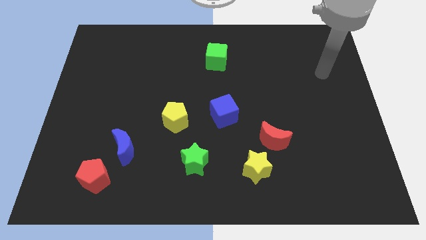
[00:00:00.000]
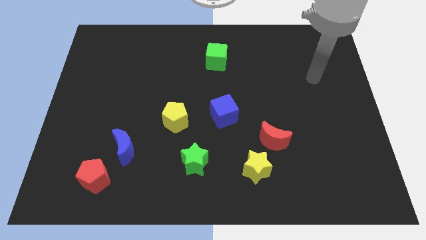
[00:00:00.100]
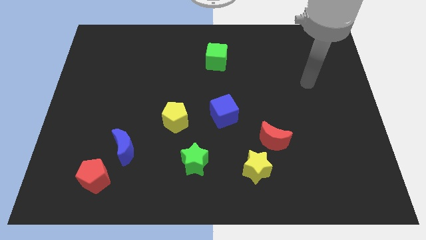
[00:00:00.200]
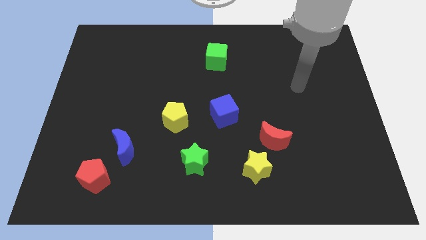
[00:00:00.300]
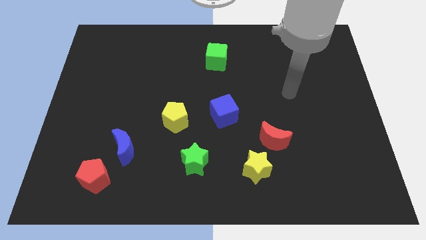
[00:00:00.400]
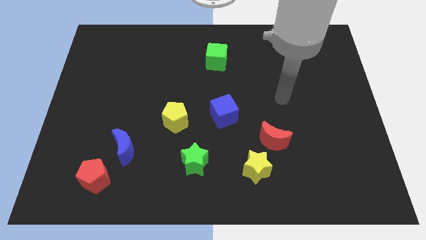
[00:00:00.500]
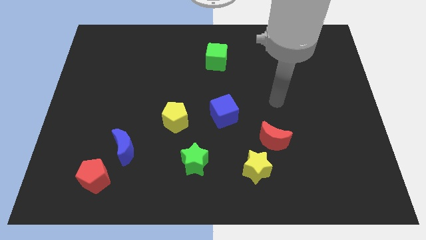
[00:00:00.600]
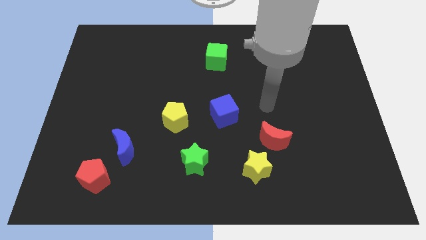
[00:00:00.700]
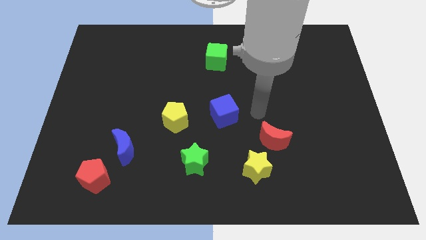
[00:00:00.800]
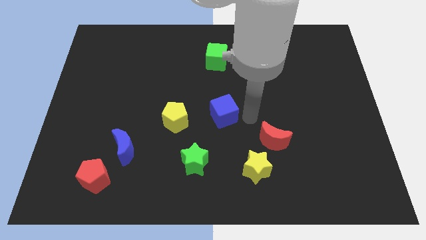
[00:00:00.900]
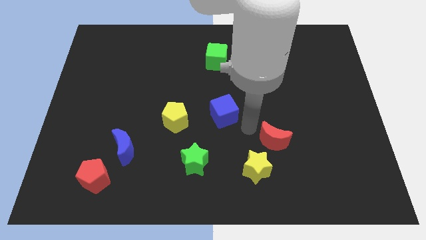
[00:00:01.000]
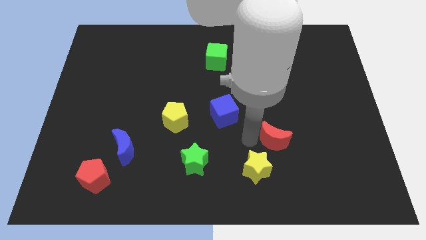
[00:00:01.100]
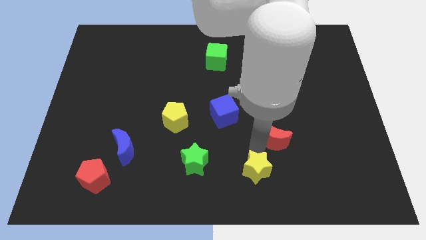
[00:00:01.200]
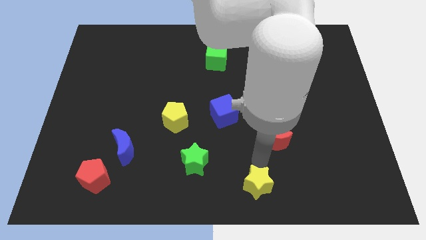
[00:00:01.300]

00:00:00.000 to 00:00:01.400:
move the red moon away from the yellow star

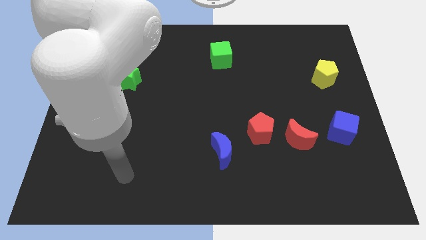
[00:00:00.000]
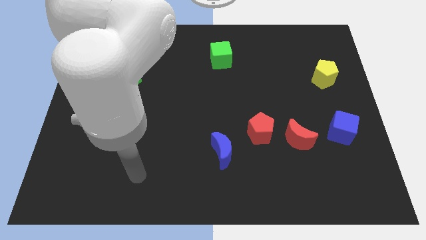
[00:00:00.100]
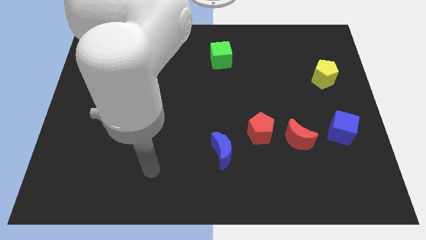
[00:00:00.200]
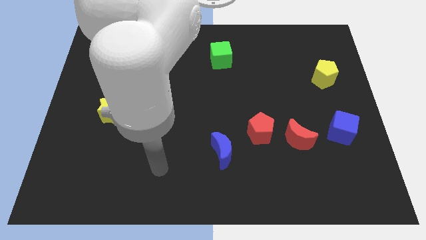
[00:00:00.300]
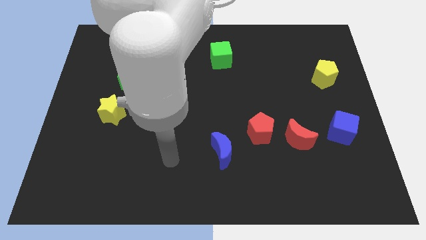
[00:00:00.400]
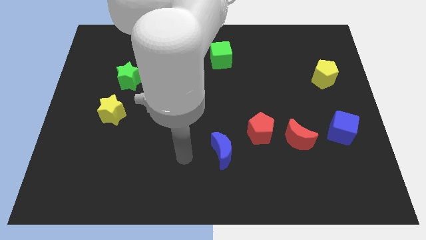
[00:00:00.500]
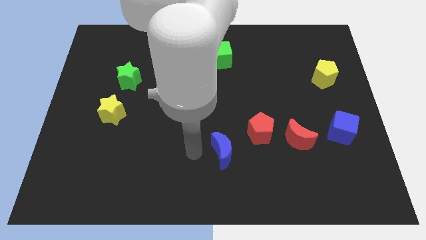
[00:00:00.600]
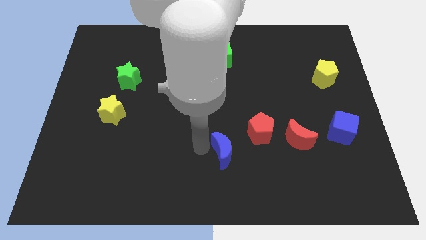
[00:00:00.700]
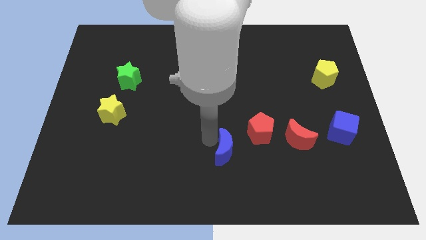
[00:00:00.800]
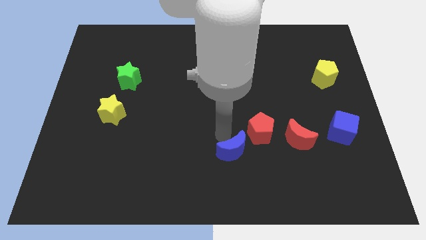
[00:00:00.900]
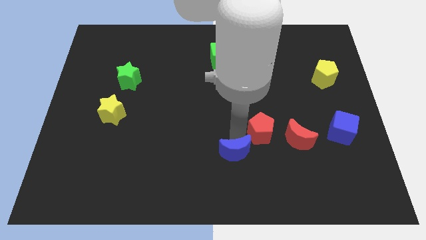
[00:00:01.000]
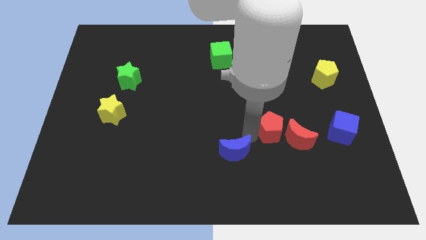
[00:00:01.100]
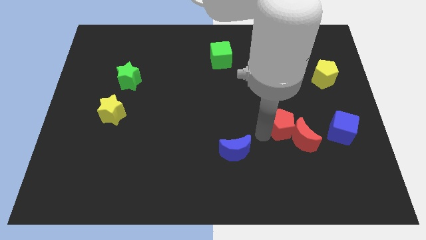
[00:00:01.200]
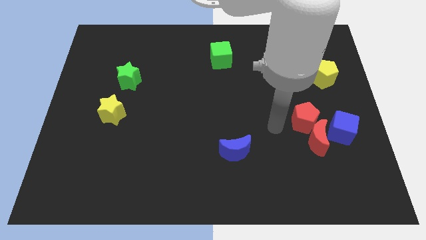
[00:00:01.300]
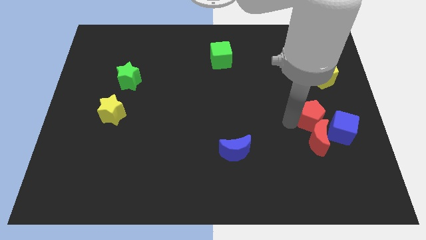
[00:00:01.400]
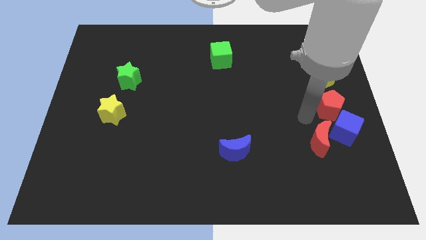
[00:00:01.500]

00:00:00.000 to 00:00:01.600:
move the red moon away from the red pentagon

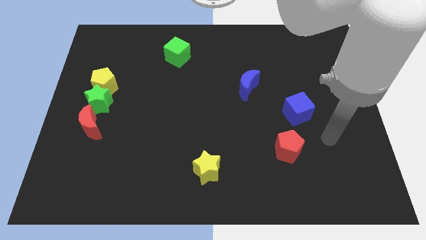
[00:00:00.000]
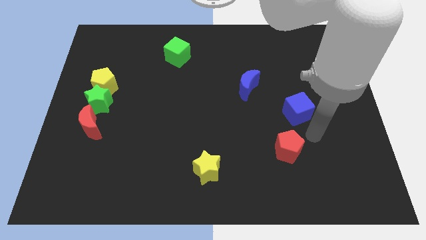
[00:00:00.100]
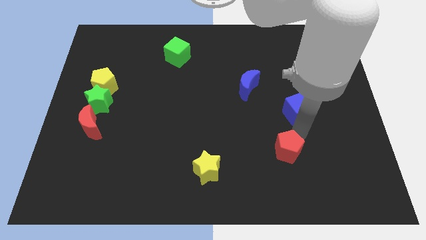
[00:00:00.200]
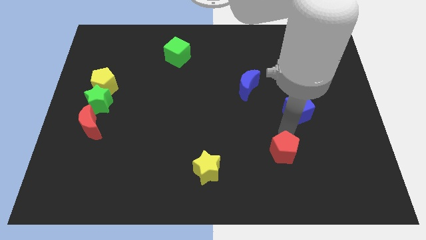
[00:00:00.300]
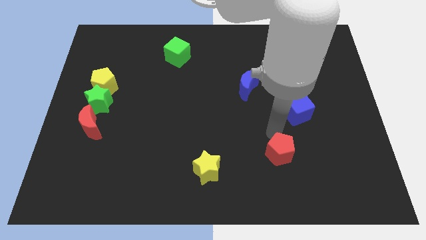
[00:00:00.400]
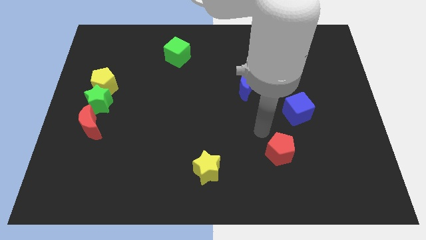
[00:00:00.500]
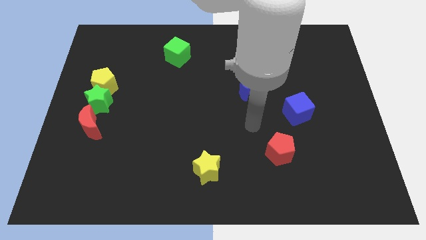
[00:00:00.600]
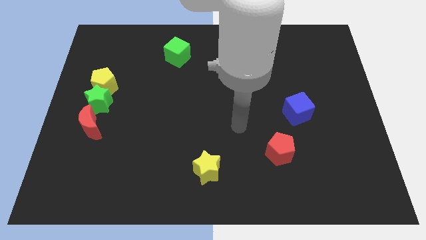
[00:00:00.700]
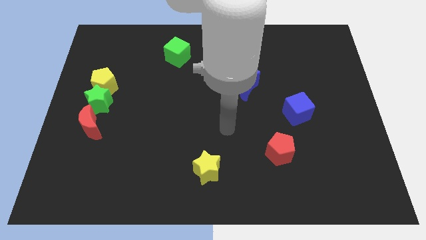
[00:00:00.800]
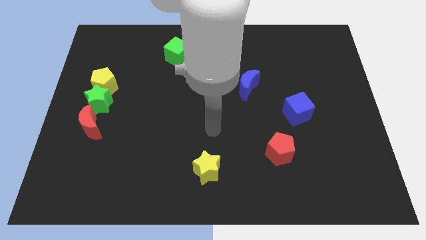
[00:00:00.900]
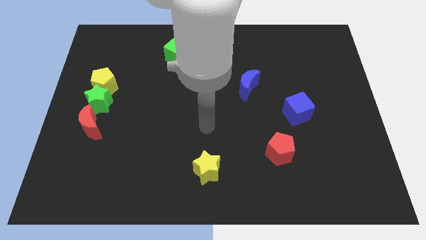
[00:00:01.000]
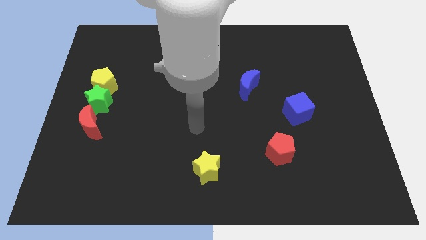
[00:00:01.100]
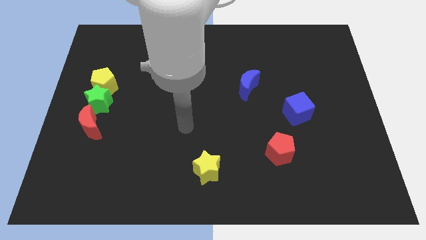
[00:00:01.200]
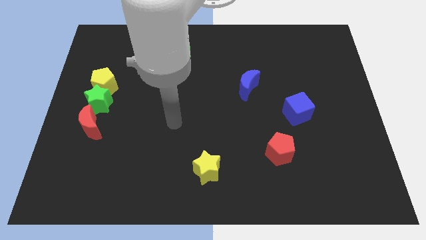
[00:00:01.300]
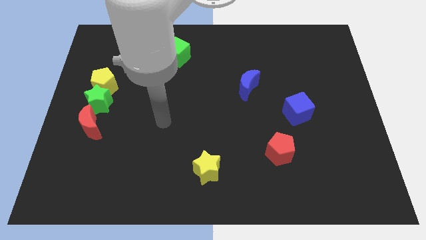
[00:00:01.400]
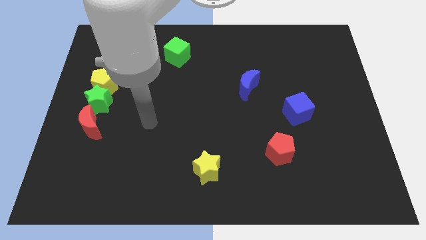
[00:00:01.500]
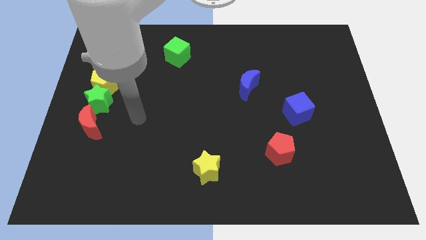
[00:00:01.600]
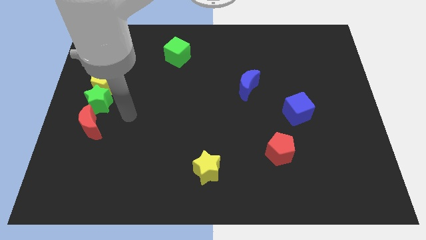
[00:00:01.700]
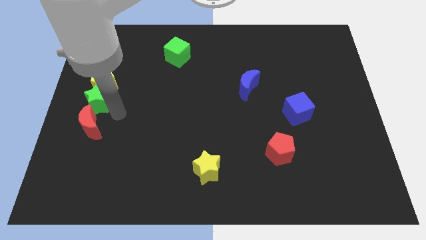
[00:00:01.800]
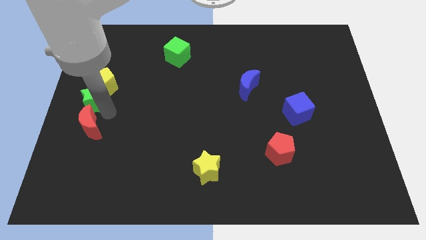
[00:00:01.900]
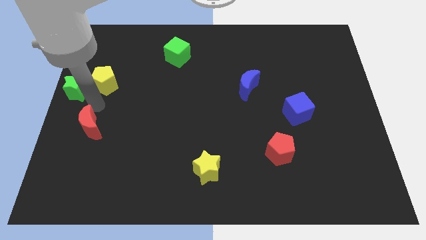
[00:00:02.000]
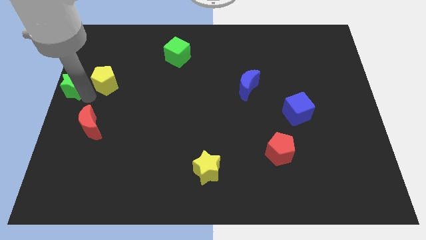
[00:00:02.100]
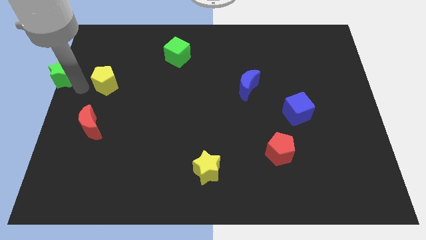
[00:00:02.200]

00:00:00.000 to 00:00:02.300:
move the yellow pentagon away from the green star

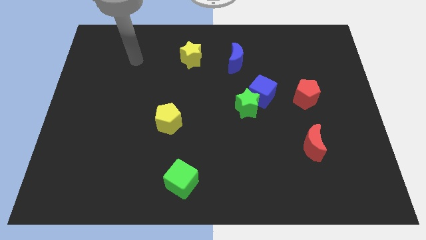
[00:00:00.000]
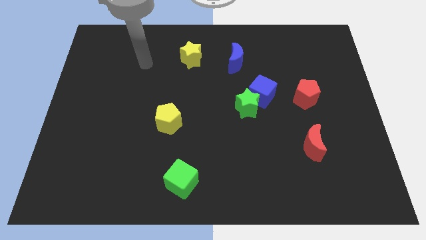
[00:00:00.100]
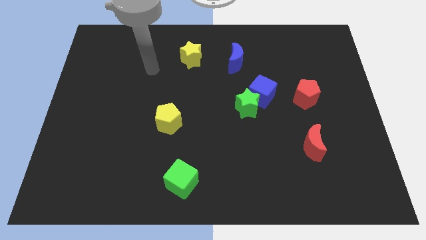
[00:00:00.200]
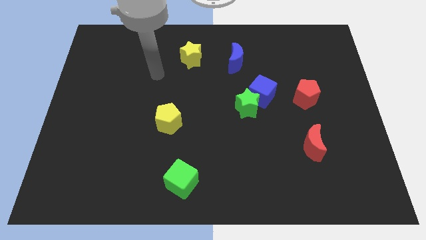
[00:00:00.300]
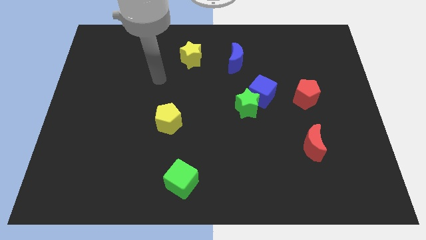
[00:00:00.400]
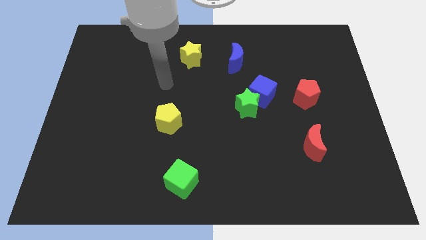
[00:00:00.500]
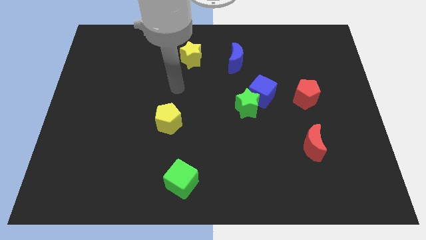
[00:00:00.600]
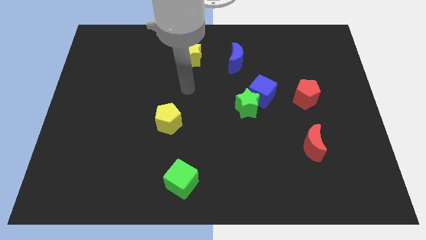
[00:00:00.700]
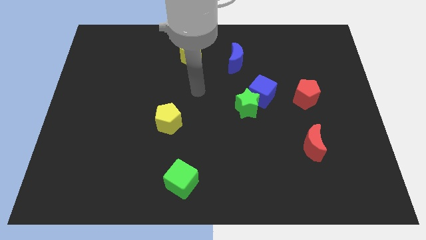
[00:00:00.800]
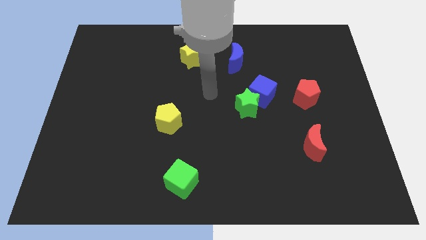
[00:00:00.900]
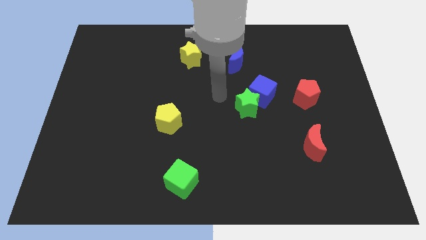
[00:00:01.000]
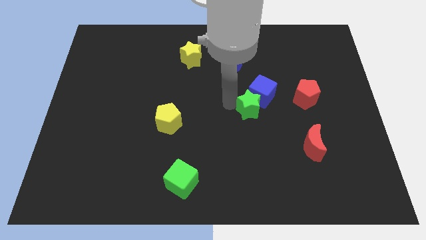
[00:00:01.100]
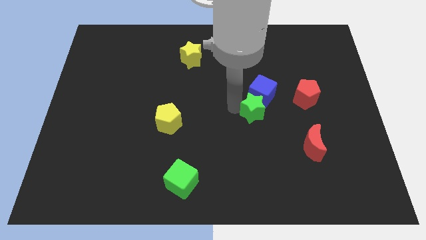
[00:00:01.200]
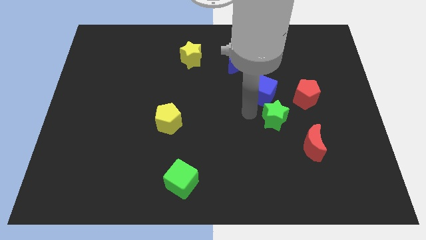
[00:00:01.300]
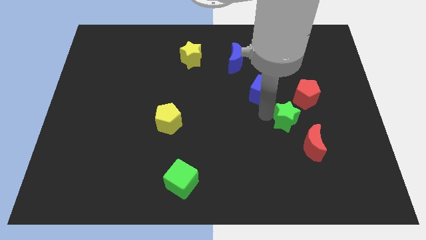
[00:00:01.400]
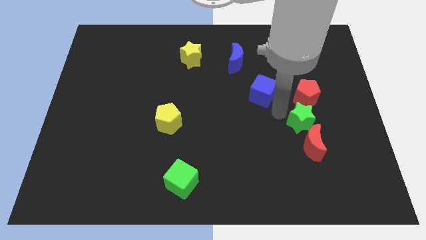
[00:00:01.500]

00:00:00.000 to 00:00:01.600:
move the blue cube away from the green star

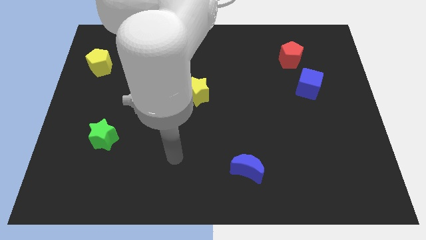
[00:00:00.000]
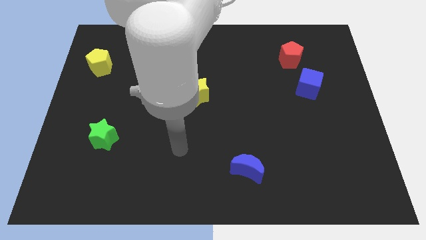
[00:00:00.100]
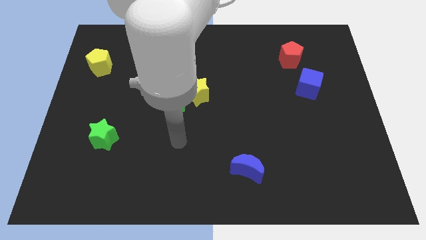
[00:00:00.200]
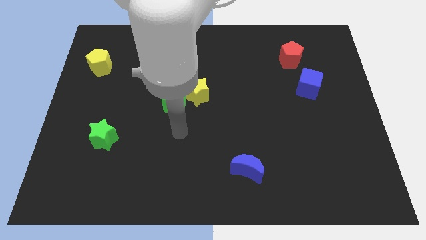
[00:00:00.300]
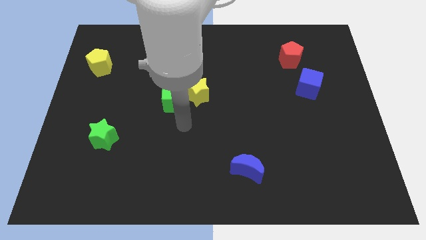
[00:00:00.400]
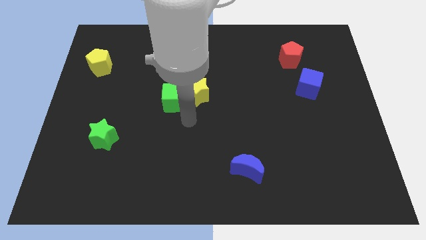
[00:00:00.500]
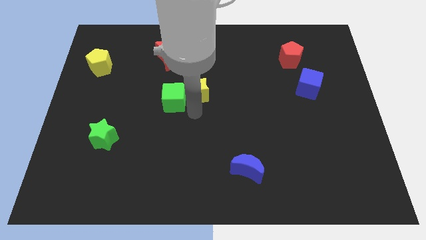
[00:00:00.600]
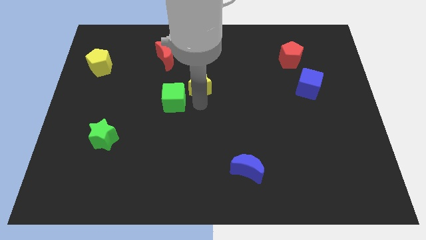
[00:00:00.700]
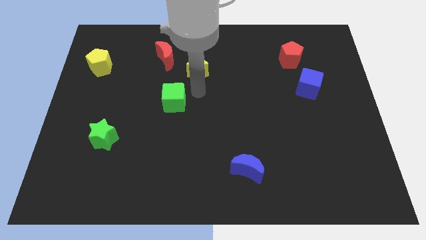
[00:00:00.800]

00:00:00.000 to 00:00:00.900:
move the green cube away from the yellow star

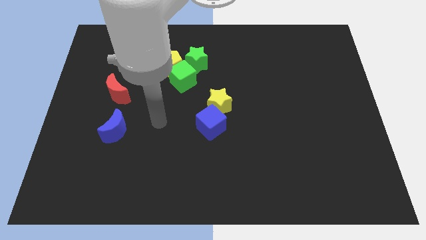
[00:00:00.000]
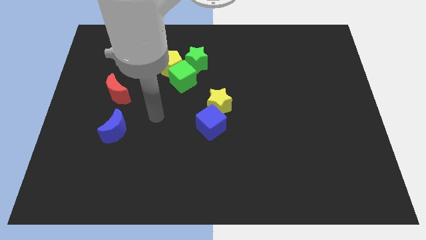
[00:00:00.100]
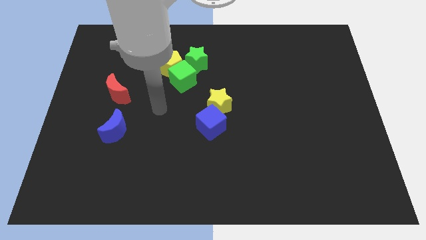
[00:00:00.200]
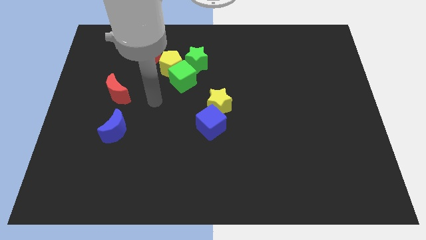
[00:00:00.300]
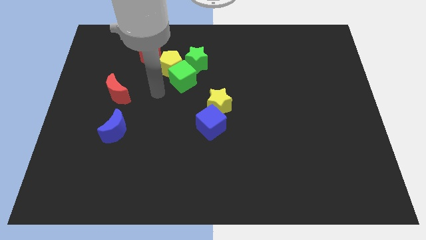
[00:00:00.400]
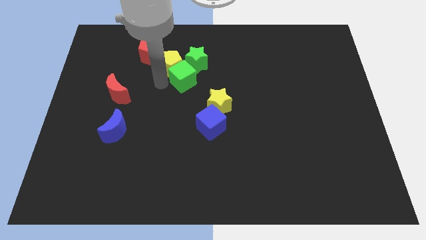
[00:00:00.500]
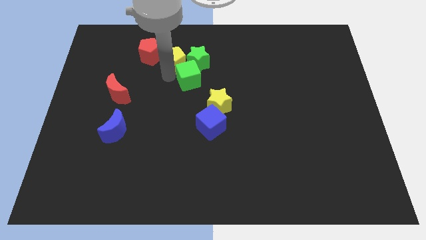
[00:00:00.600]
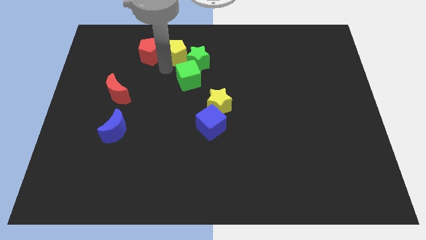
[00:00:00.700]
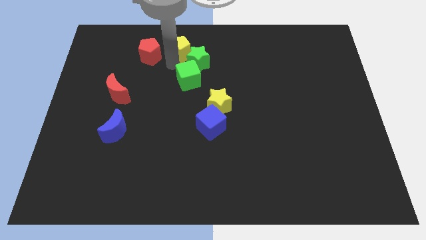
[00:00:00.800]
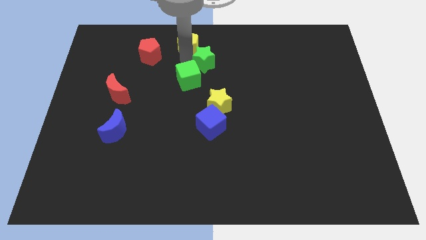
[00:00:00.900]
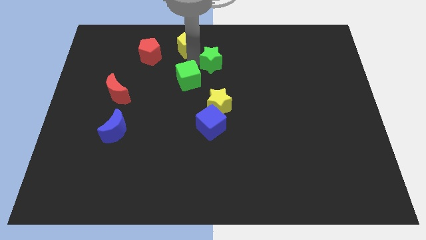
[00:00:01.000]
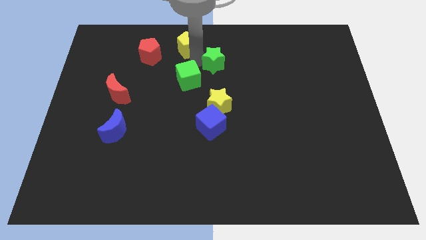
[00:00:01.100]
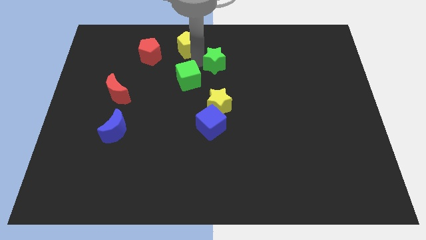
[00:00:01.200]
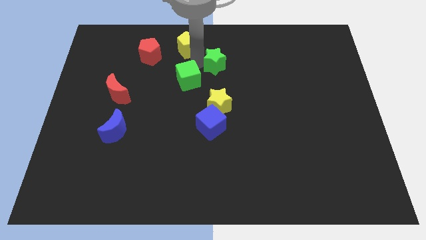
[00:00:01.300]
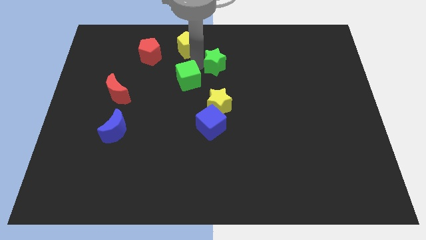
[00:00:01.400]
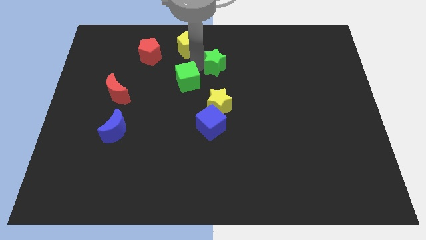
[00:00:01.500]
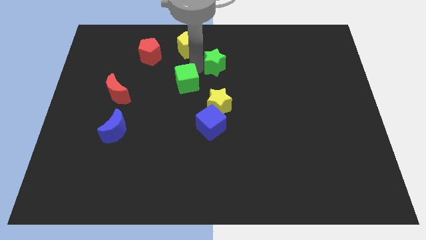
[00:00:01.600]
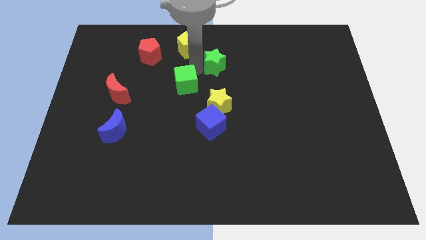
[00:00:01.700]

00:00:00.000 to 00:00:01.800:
pull the green cube apart from the yellow pentagon and green star
